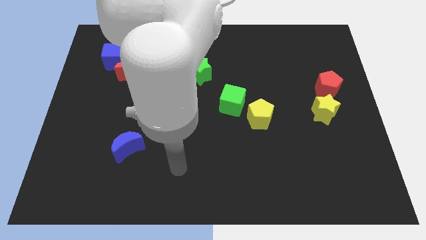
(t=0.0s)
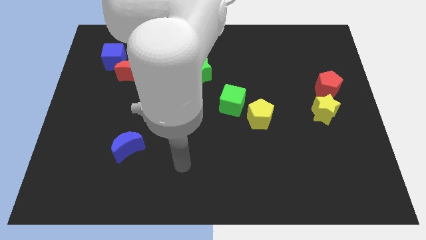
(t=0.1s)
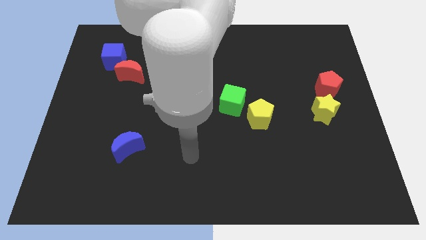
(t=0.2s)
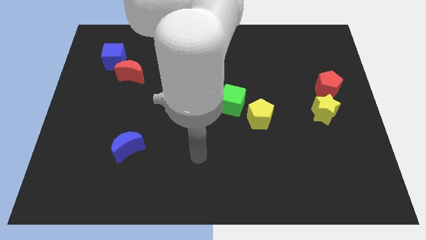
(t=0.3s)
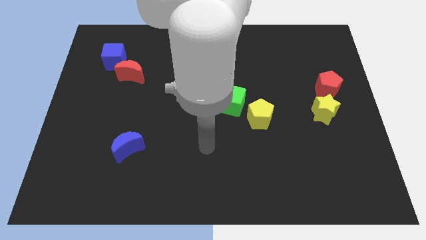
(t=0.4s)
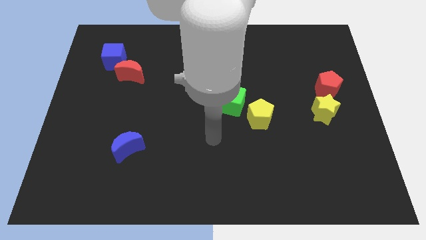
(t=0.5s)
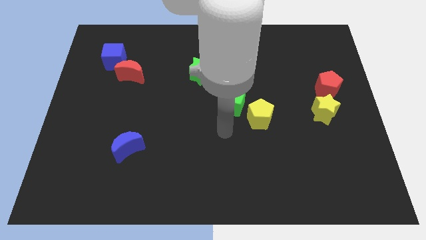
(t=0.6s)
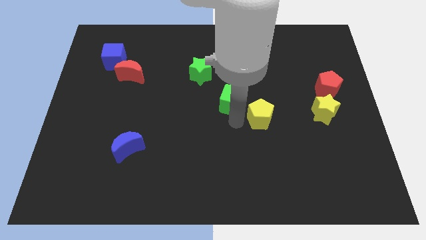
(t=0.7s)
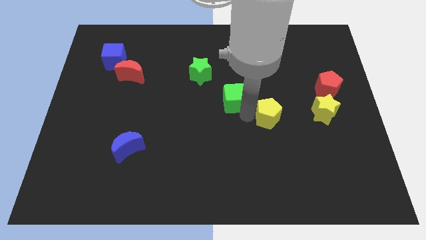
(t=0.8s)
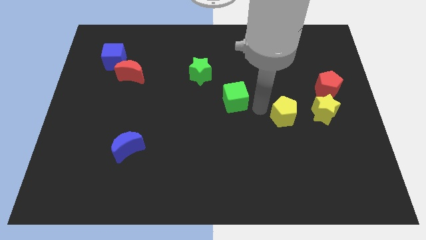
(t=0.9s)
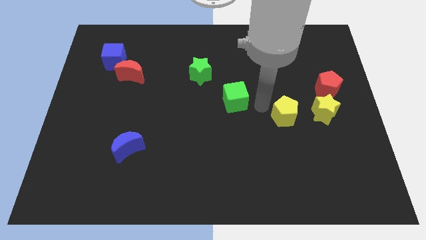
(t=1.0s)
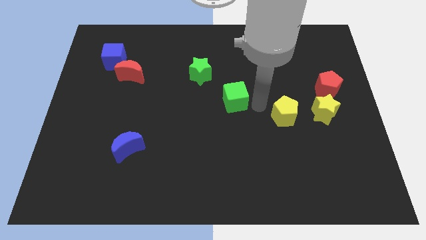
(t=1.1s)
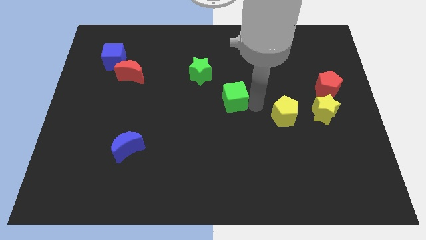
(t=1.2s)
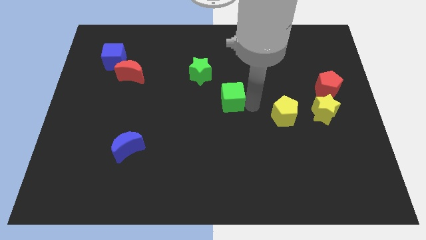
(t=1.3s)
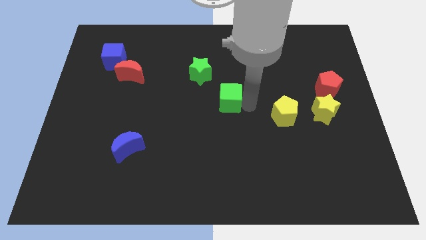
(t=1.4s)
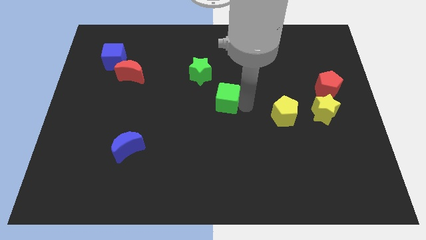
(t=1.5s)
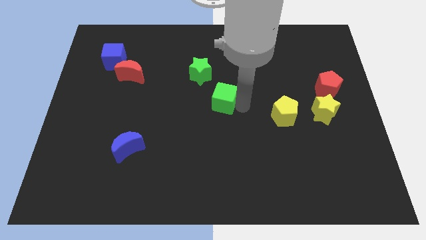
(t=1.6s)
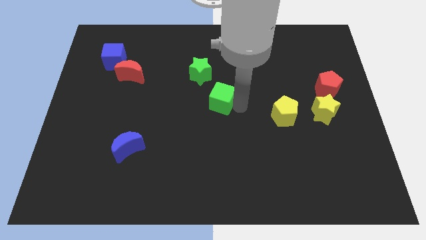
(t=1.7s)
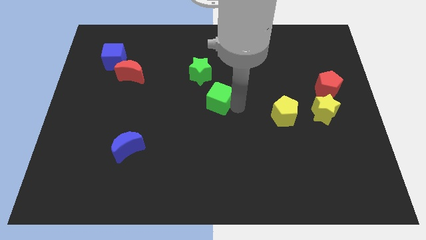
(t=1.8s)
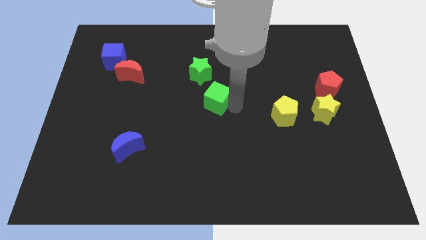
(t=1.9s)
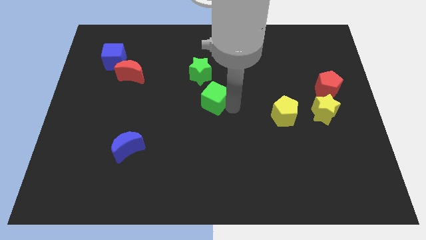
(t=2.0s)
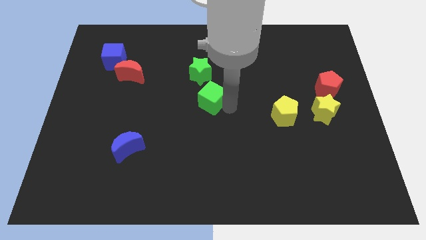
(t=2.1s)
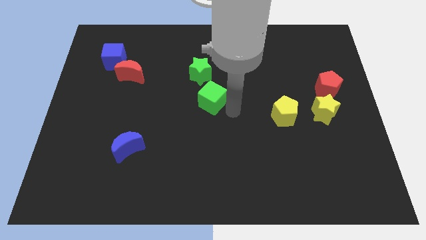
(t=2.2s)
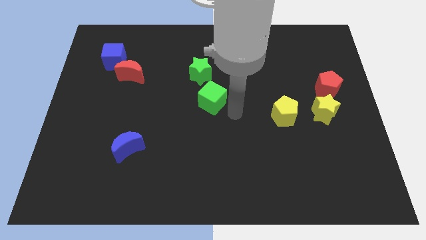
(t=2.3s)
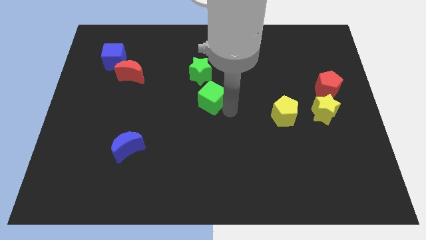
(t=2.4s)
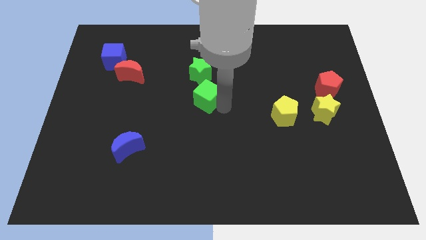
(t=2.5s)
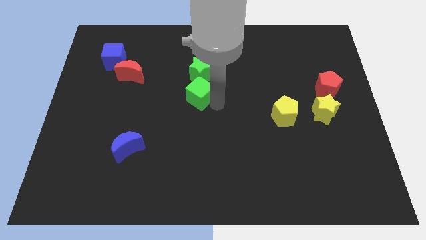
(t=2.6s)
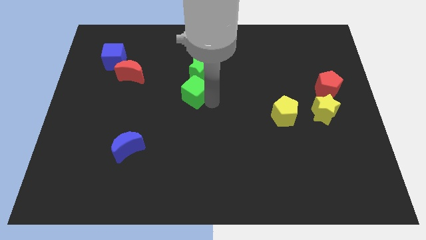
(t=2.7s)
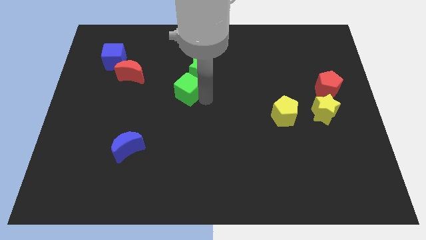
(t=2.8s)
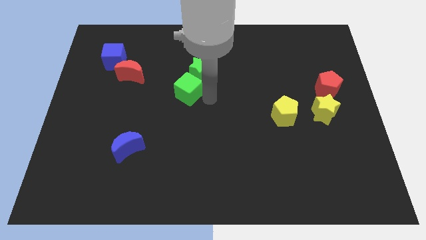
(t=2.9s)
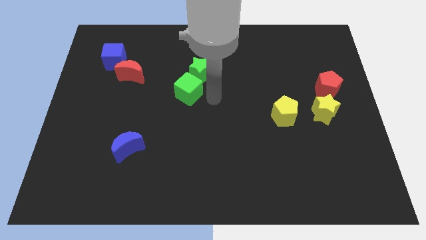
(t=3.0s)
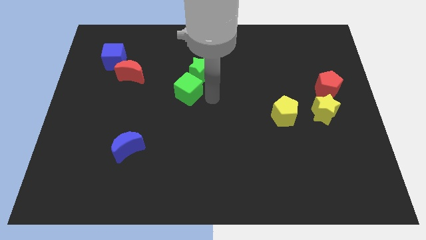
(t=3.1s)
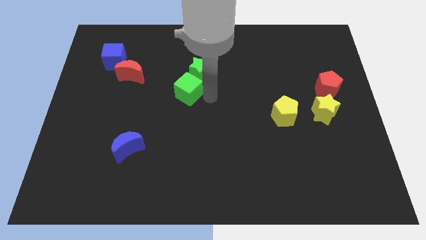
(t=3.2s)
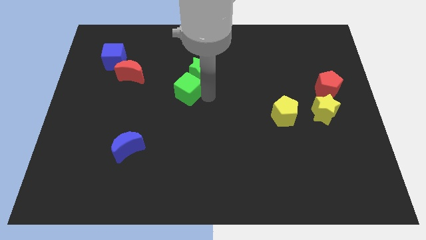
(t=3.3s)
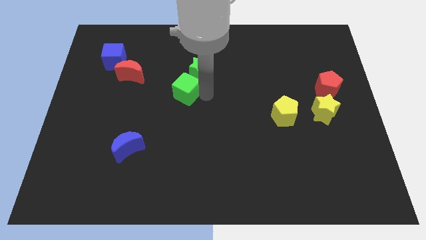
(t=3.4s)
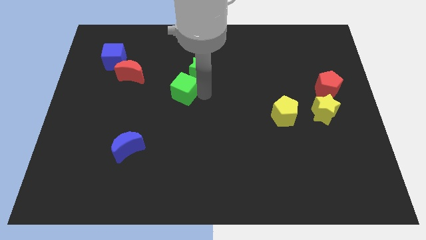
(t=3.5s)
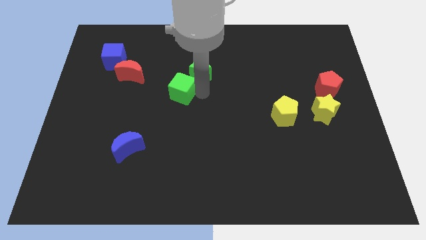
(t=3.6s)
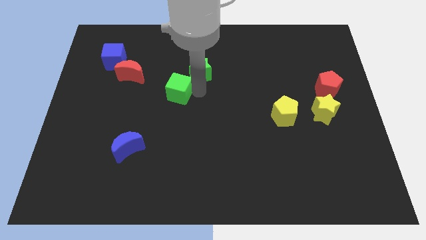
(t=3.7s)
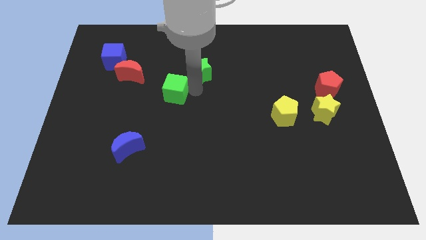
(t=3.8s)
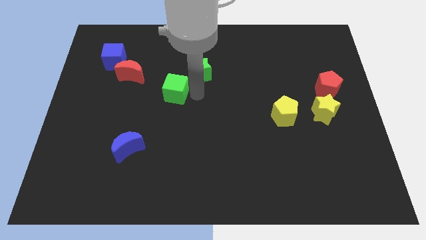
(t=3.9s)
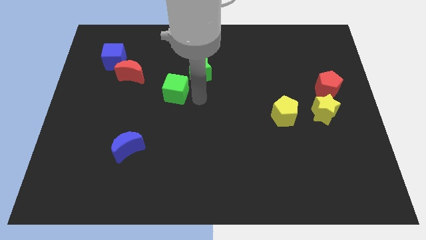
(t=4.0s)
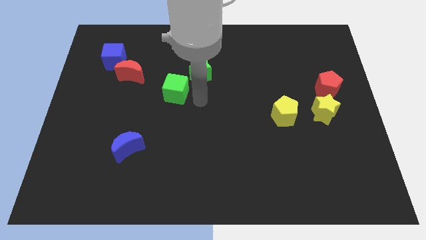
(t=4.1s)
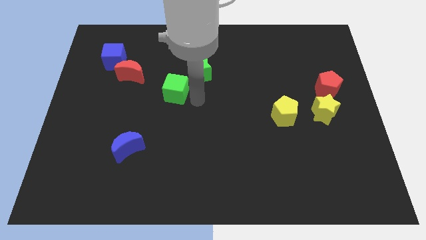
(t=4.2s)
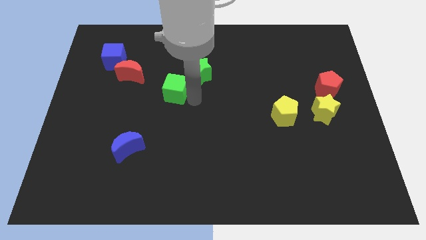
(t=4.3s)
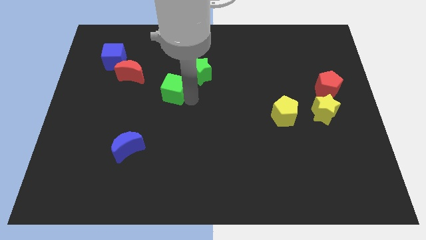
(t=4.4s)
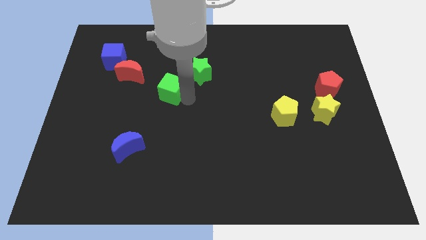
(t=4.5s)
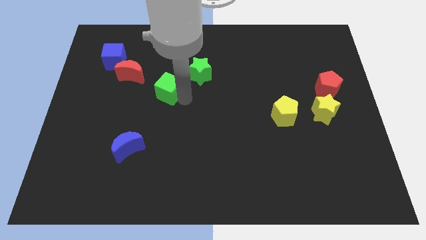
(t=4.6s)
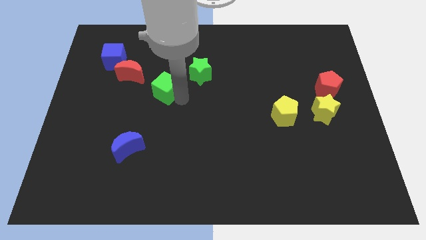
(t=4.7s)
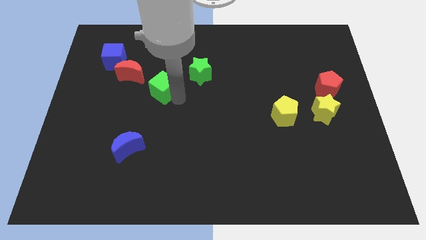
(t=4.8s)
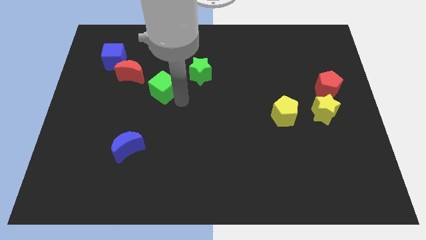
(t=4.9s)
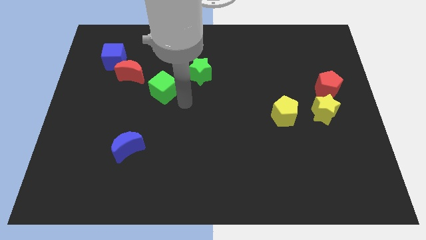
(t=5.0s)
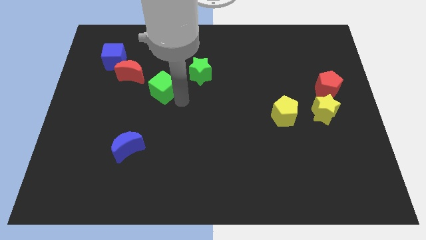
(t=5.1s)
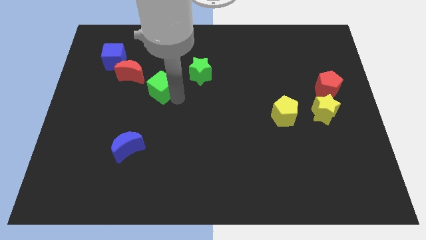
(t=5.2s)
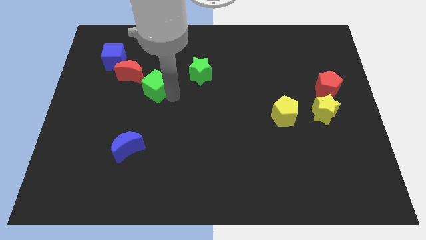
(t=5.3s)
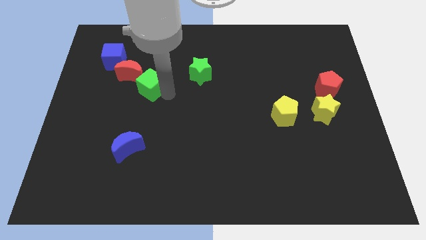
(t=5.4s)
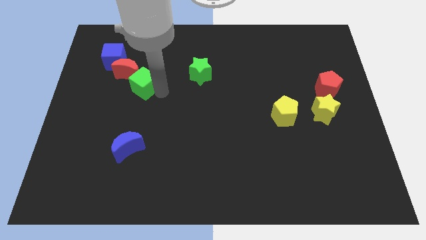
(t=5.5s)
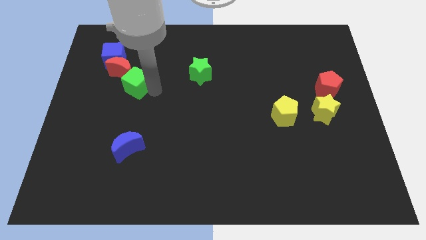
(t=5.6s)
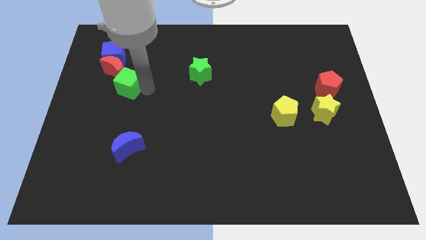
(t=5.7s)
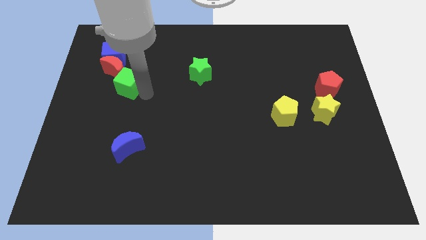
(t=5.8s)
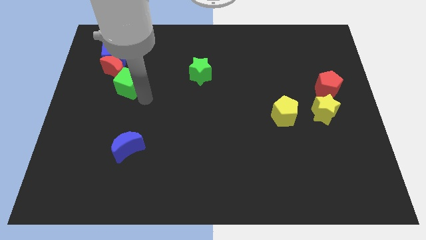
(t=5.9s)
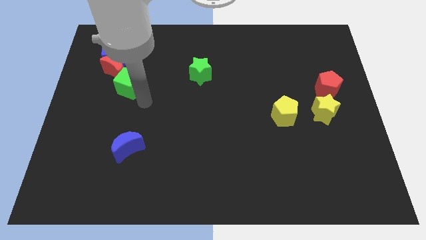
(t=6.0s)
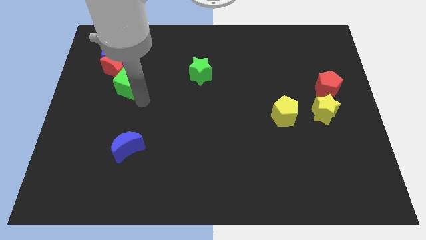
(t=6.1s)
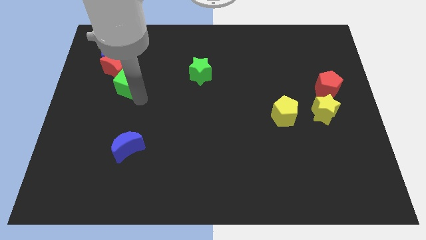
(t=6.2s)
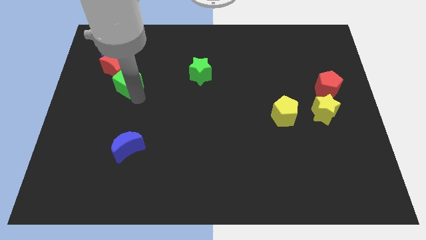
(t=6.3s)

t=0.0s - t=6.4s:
move the green cube next to the red moon

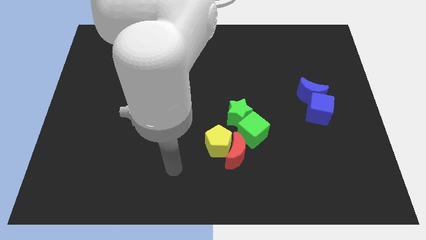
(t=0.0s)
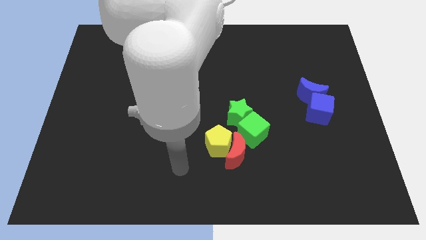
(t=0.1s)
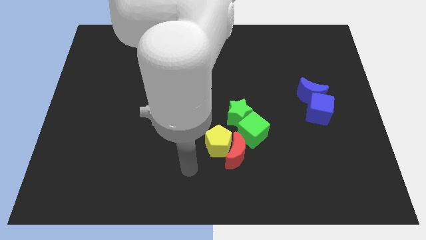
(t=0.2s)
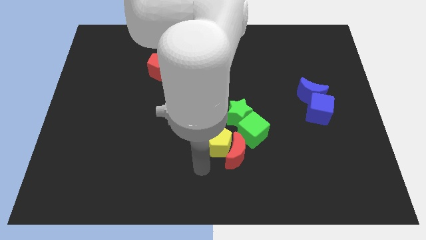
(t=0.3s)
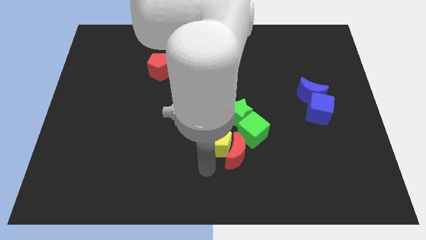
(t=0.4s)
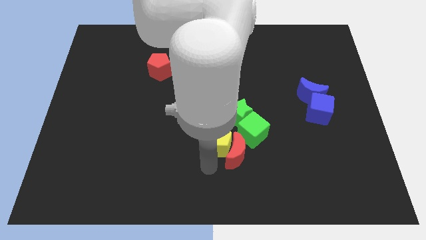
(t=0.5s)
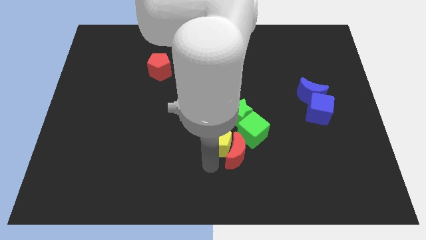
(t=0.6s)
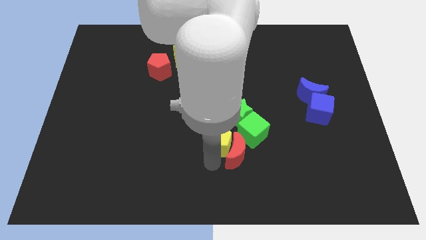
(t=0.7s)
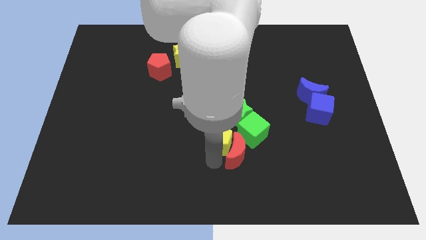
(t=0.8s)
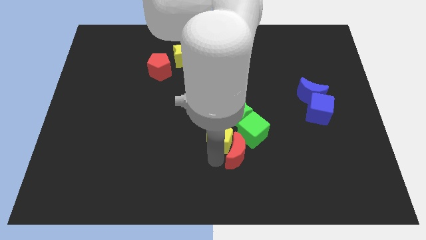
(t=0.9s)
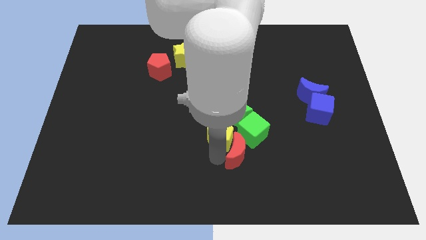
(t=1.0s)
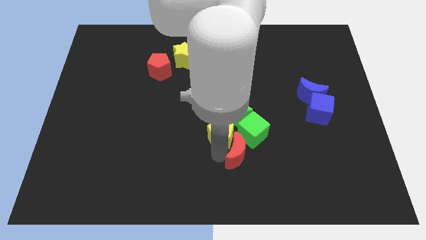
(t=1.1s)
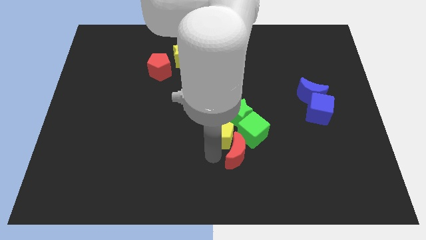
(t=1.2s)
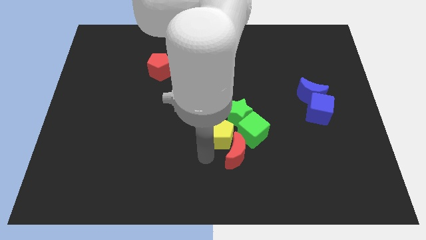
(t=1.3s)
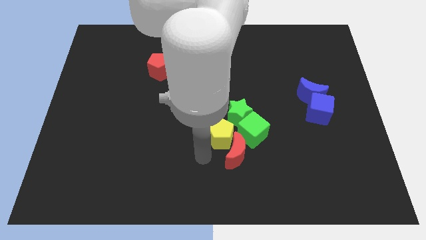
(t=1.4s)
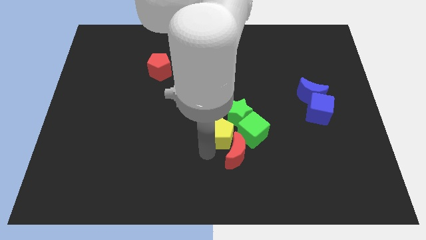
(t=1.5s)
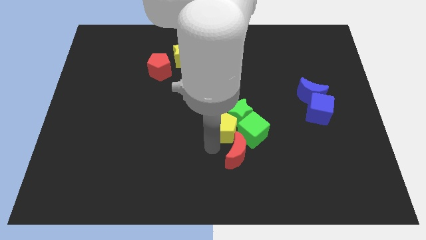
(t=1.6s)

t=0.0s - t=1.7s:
move the yellow pentagon close to the green star
